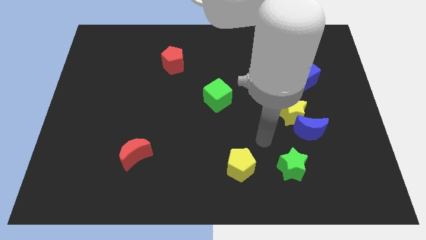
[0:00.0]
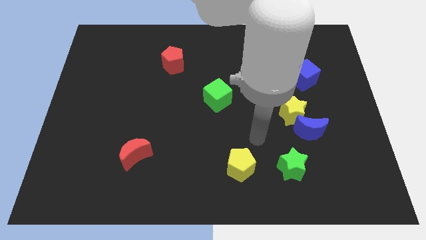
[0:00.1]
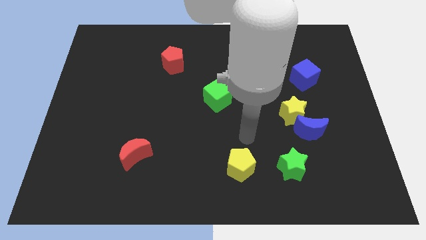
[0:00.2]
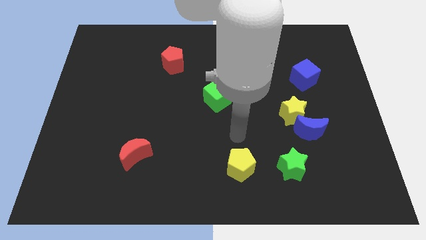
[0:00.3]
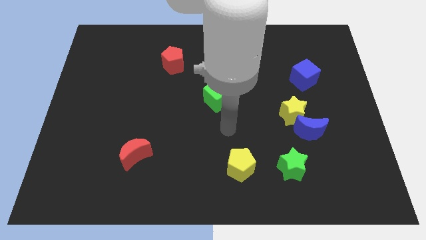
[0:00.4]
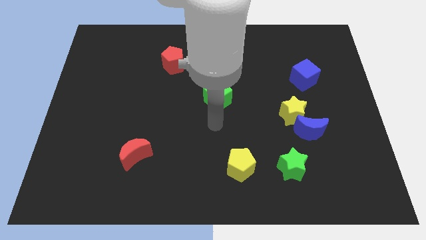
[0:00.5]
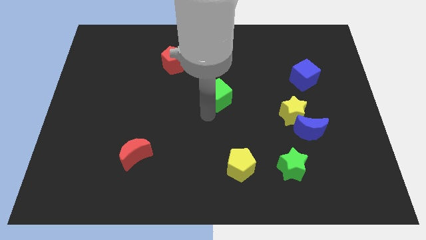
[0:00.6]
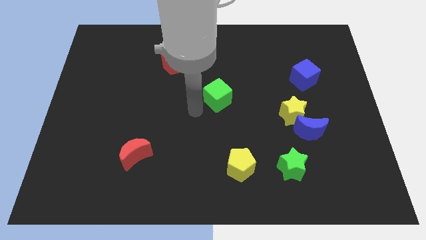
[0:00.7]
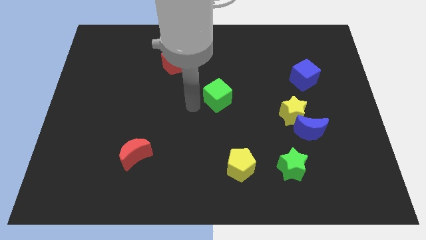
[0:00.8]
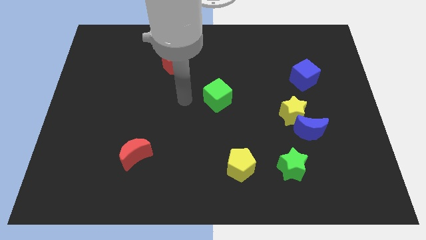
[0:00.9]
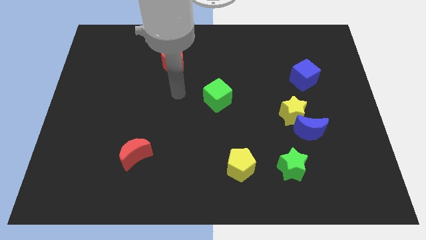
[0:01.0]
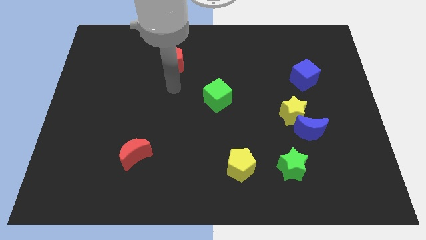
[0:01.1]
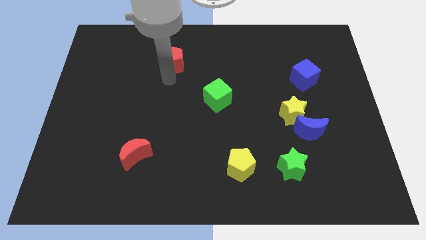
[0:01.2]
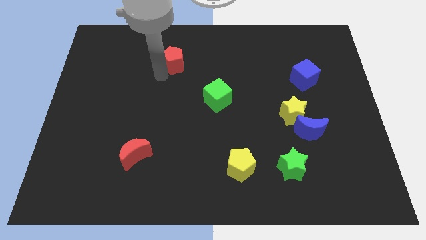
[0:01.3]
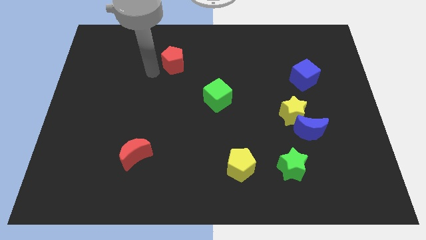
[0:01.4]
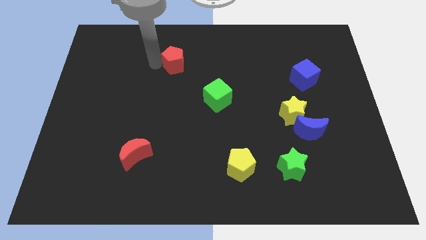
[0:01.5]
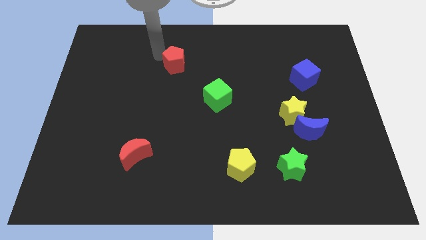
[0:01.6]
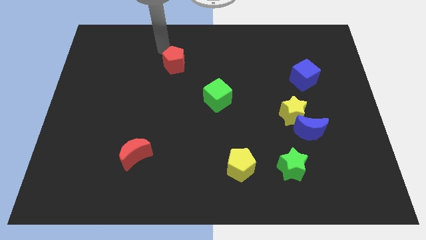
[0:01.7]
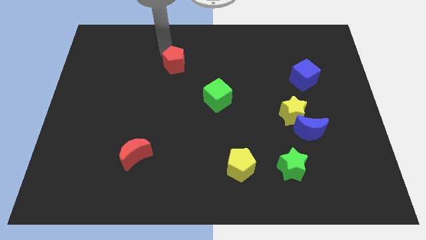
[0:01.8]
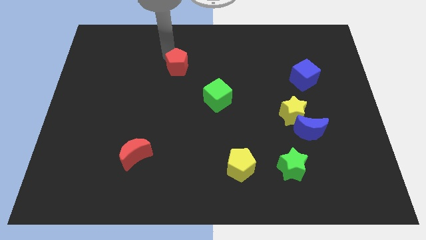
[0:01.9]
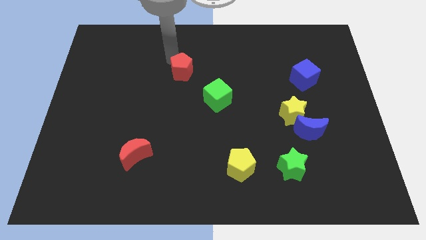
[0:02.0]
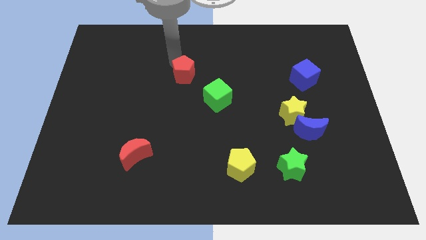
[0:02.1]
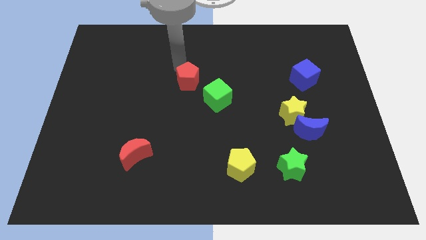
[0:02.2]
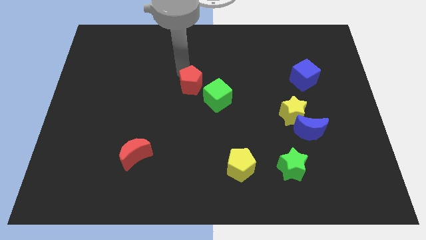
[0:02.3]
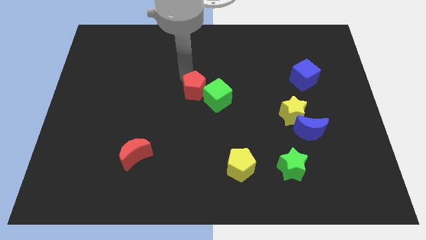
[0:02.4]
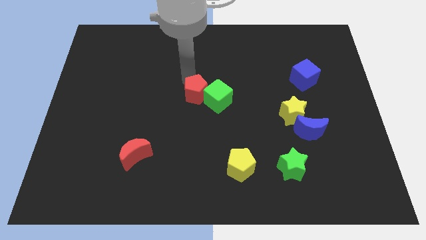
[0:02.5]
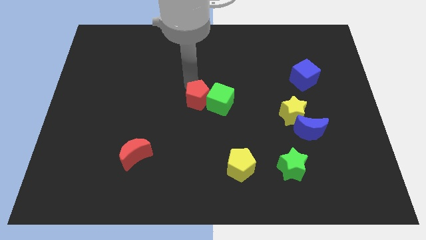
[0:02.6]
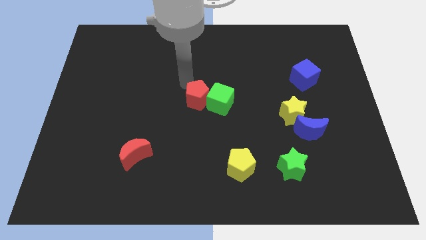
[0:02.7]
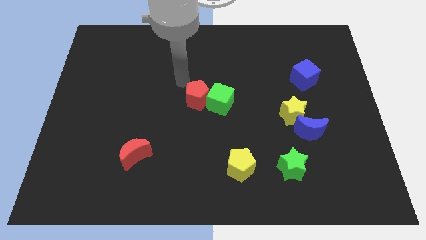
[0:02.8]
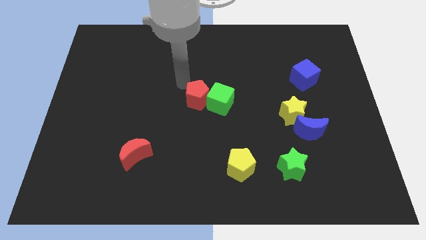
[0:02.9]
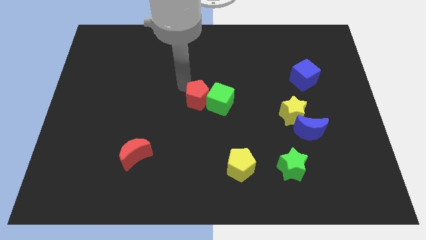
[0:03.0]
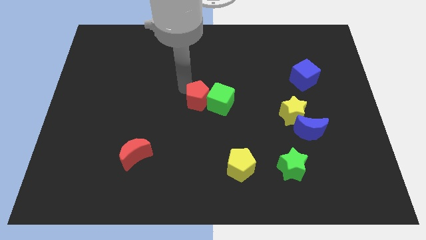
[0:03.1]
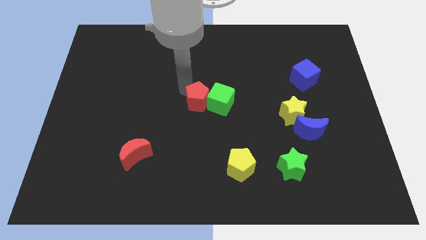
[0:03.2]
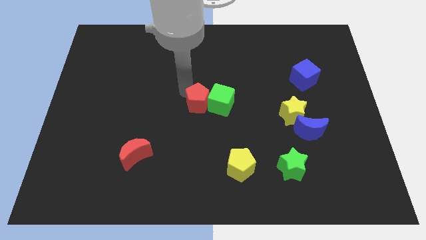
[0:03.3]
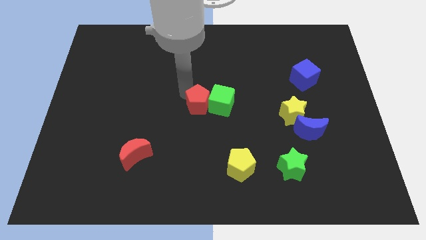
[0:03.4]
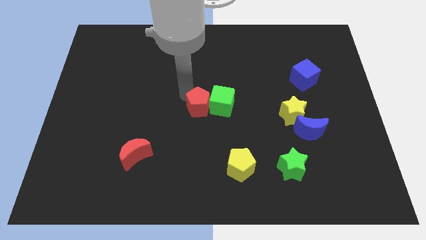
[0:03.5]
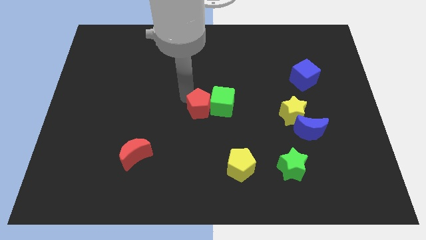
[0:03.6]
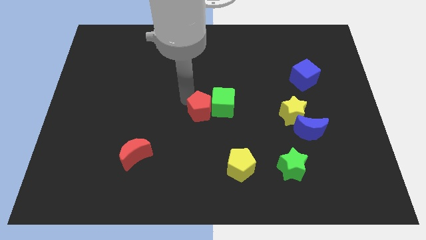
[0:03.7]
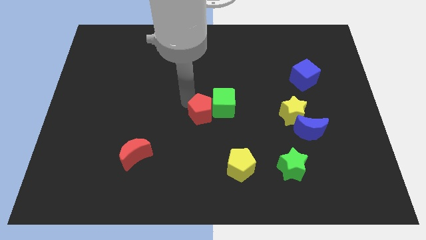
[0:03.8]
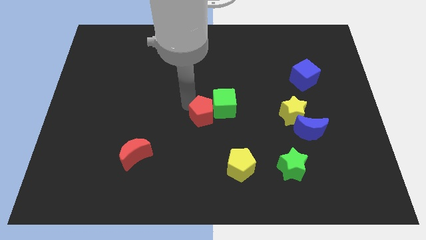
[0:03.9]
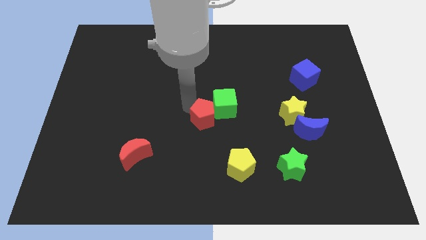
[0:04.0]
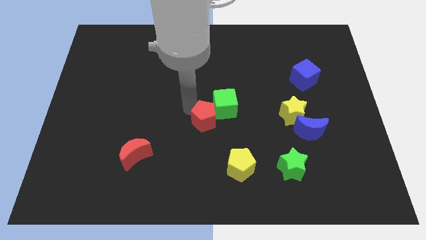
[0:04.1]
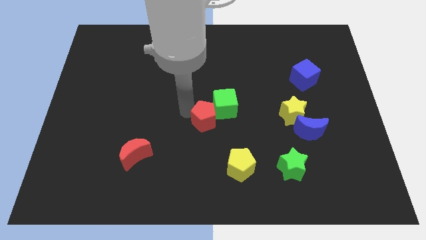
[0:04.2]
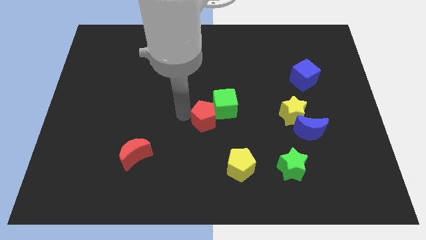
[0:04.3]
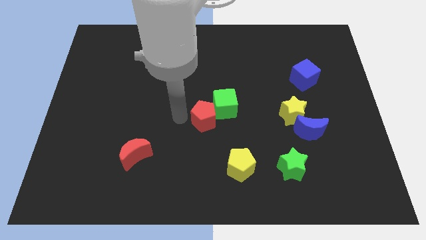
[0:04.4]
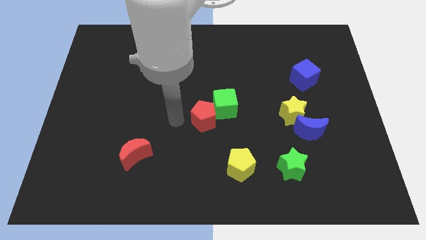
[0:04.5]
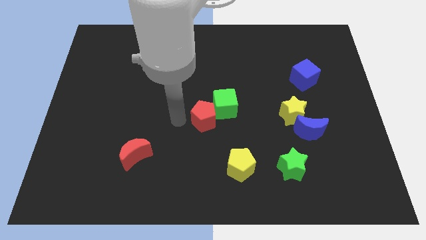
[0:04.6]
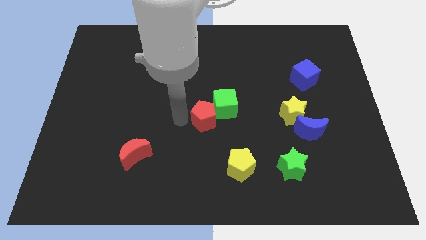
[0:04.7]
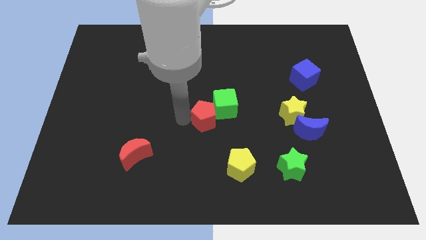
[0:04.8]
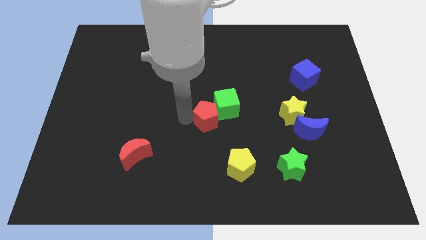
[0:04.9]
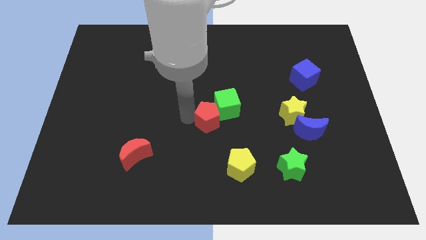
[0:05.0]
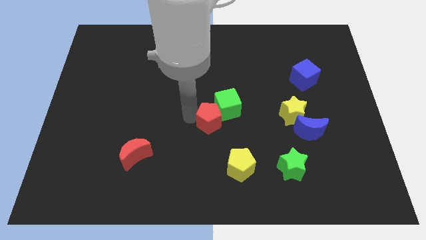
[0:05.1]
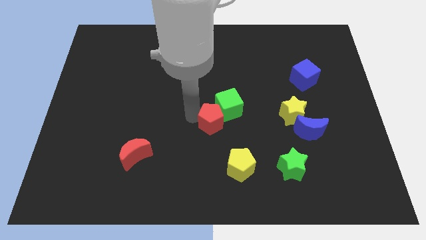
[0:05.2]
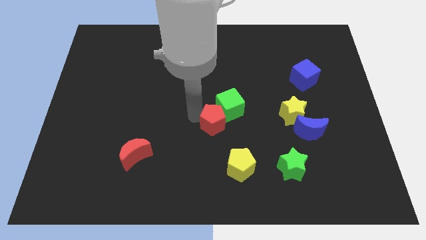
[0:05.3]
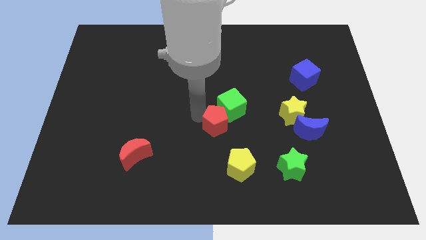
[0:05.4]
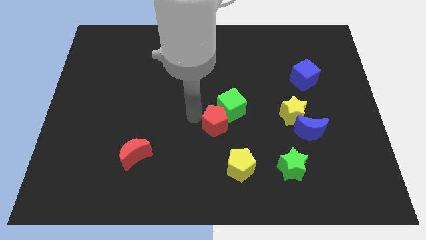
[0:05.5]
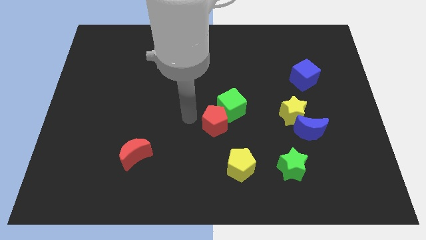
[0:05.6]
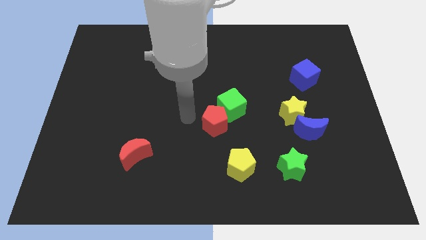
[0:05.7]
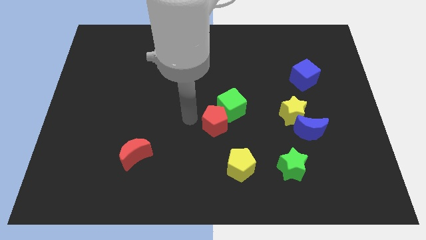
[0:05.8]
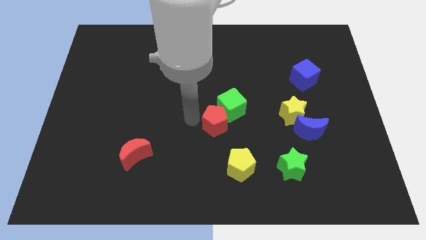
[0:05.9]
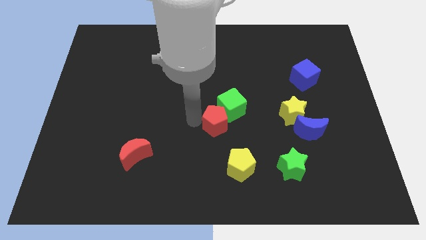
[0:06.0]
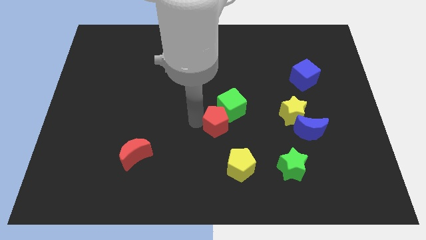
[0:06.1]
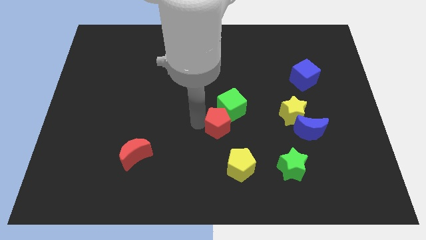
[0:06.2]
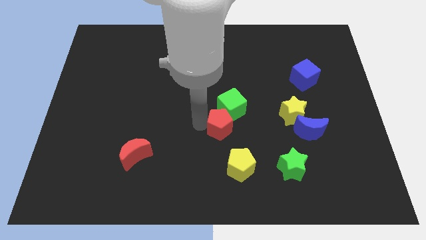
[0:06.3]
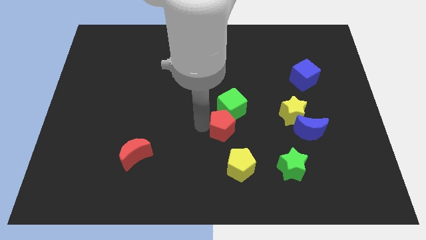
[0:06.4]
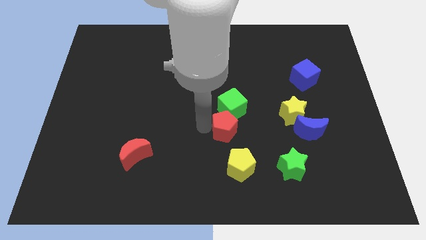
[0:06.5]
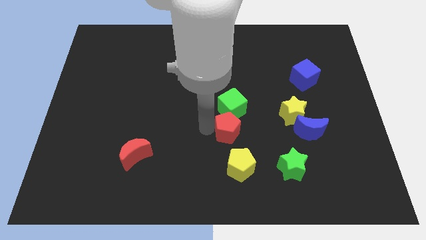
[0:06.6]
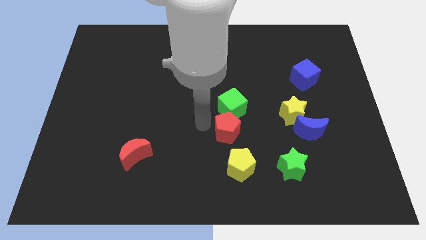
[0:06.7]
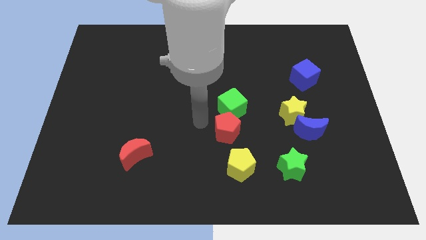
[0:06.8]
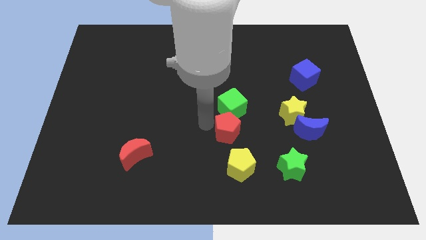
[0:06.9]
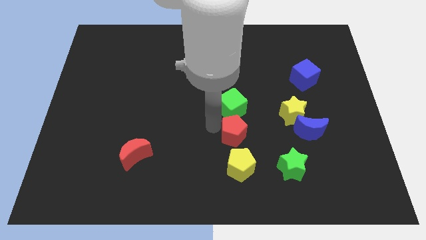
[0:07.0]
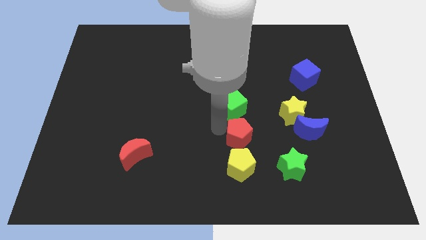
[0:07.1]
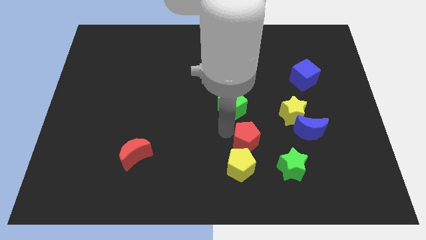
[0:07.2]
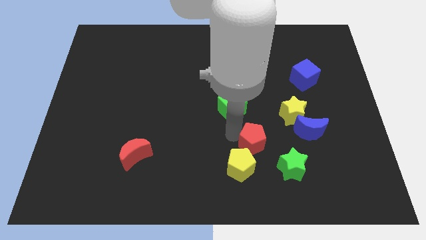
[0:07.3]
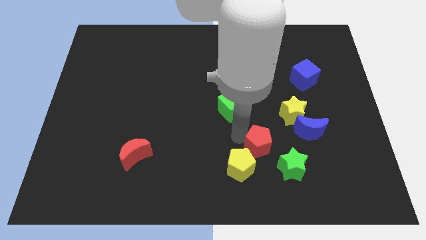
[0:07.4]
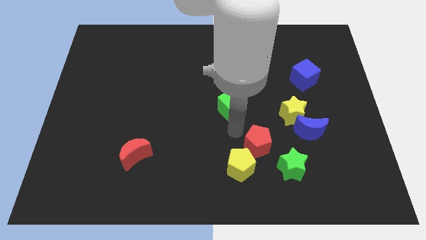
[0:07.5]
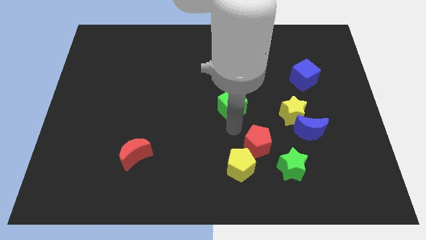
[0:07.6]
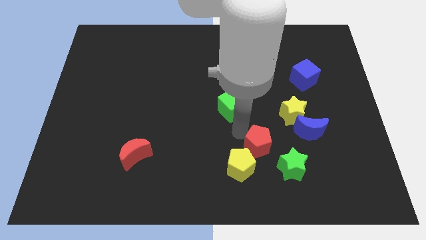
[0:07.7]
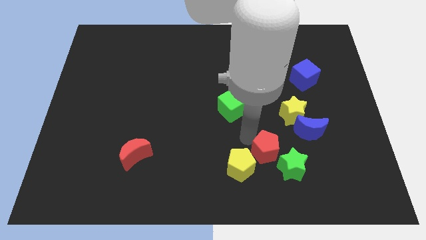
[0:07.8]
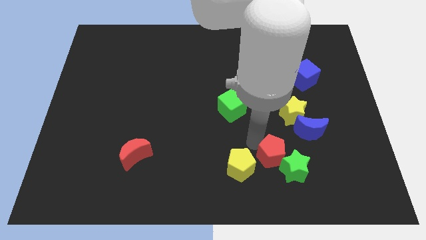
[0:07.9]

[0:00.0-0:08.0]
put the red pentagon to the green star
